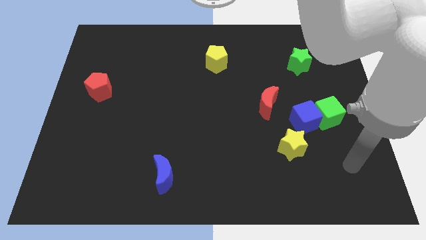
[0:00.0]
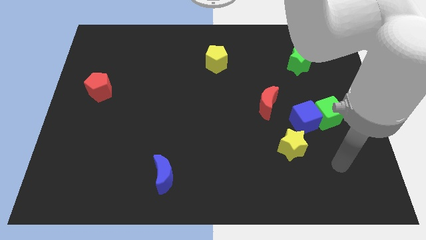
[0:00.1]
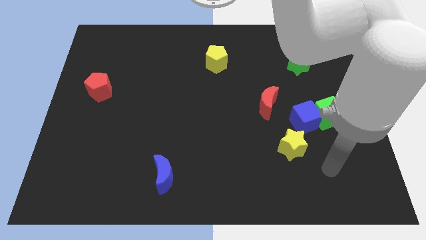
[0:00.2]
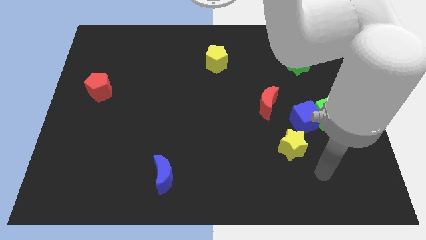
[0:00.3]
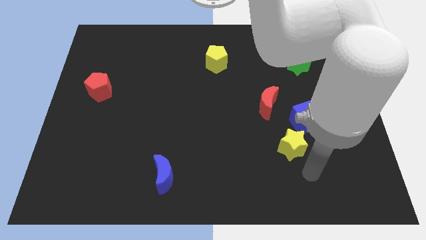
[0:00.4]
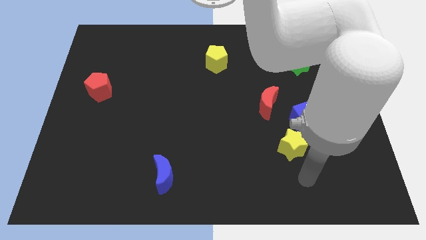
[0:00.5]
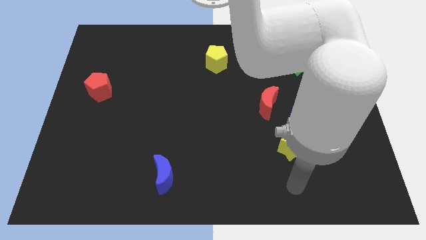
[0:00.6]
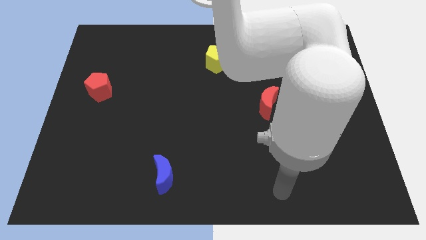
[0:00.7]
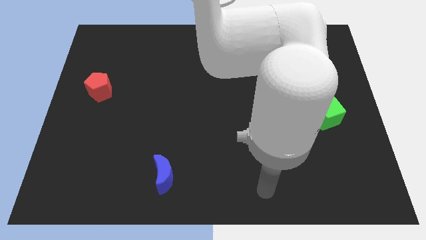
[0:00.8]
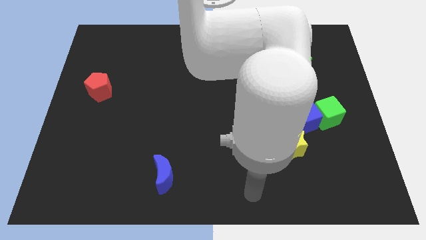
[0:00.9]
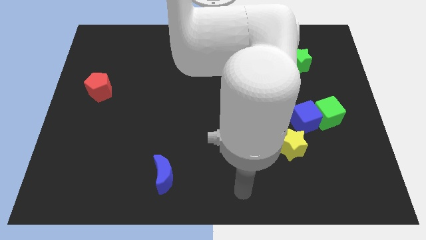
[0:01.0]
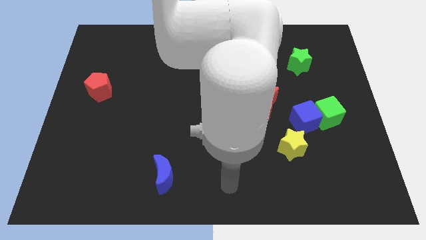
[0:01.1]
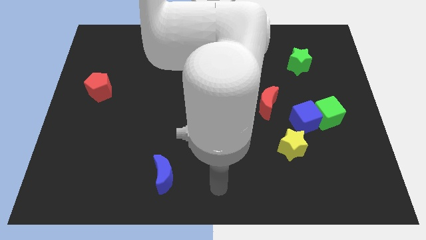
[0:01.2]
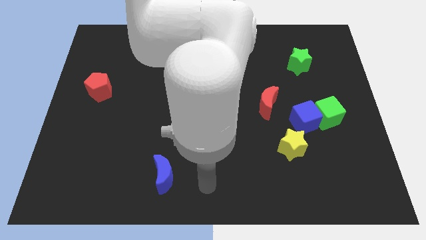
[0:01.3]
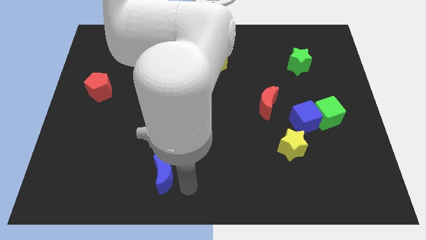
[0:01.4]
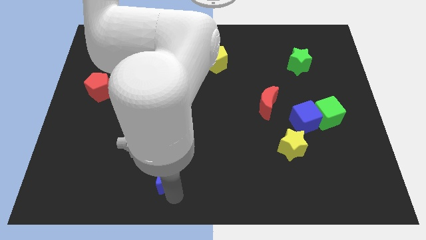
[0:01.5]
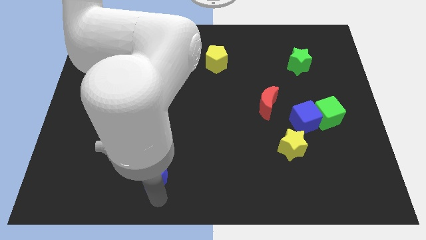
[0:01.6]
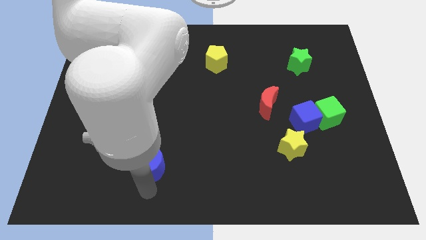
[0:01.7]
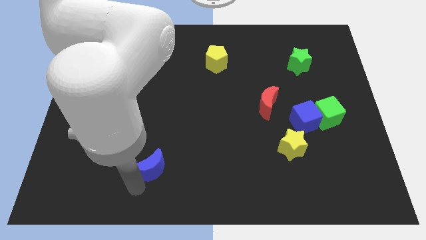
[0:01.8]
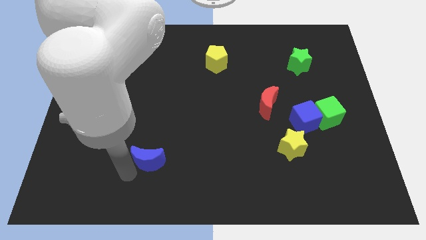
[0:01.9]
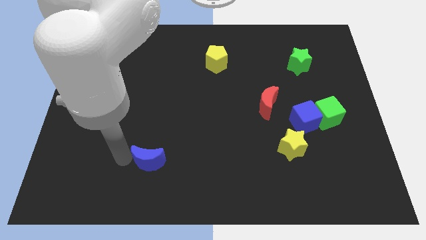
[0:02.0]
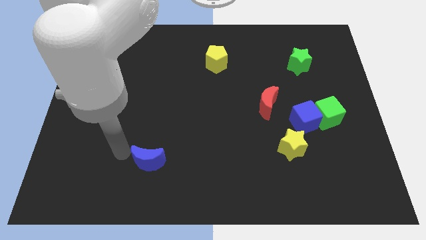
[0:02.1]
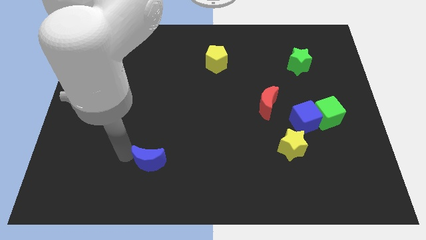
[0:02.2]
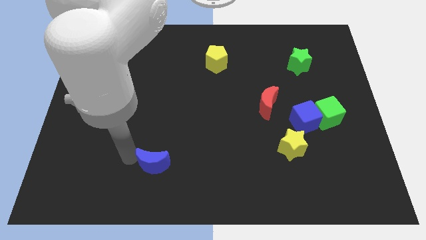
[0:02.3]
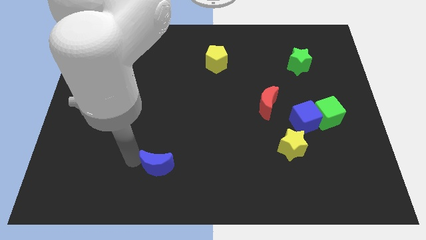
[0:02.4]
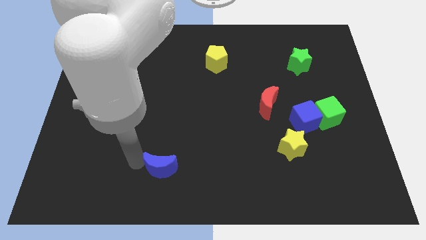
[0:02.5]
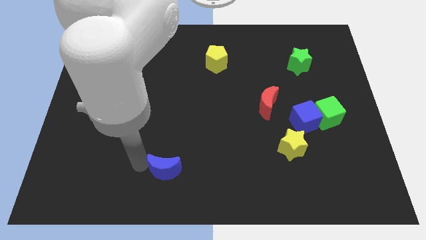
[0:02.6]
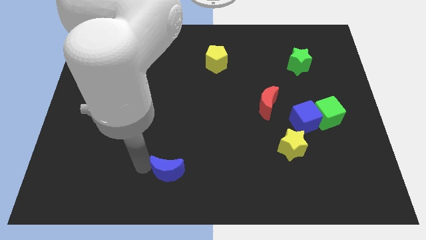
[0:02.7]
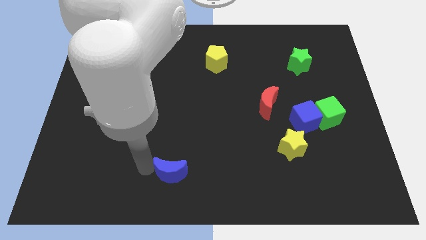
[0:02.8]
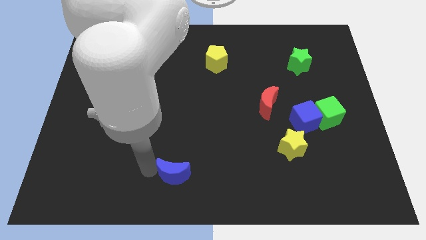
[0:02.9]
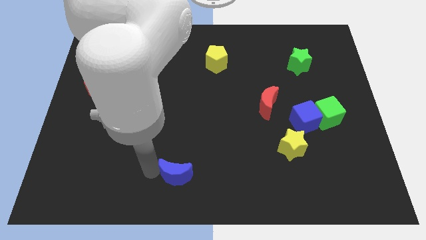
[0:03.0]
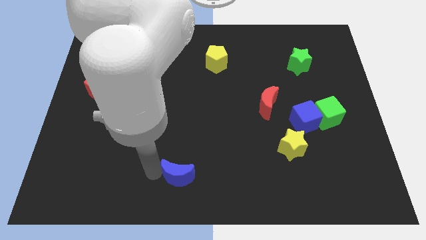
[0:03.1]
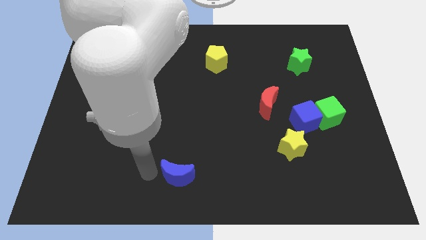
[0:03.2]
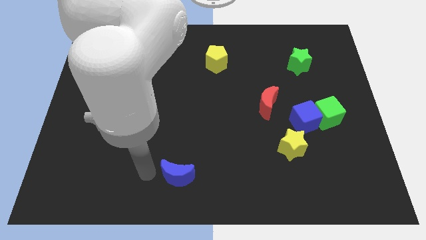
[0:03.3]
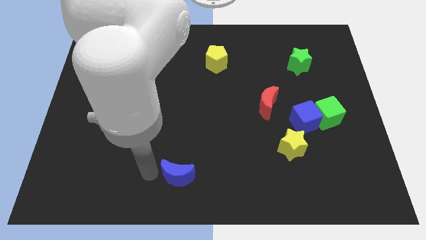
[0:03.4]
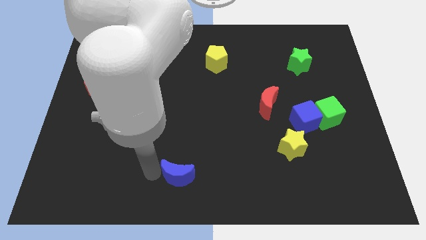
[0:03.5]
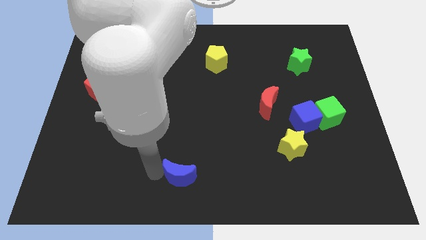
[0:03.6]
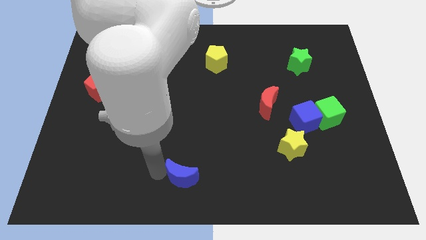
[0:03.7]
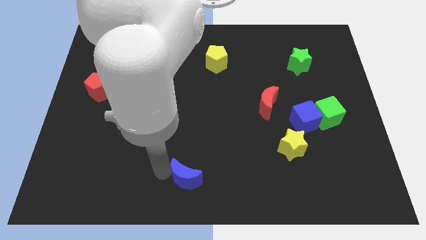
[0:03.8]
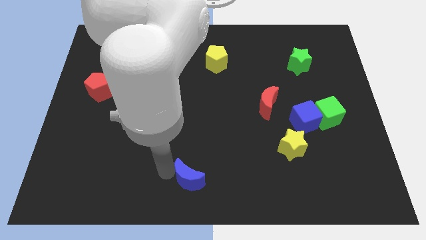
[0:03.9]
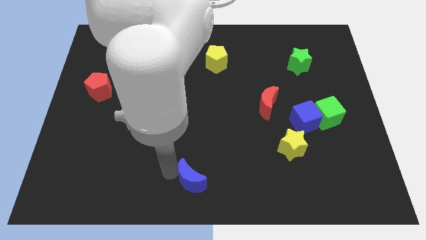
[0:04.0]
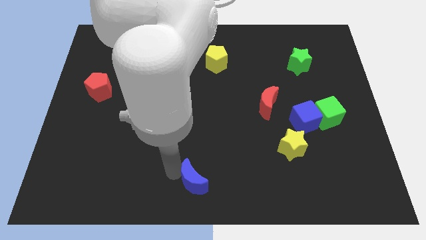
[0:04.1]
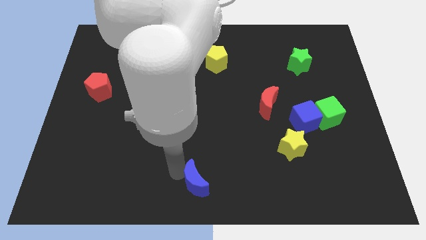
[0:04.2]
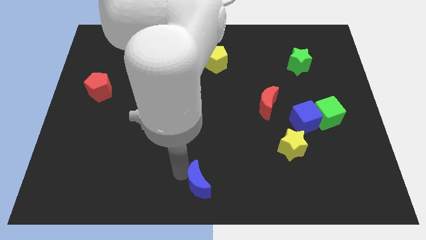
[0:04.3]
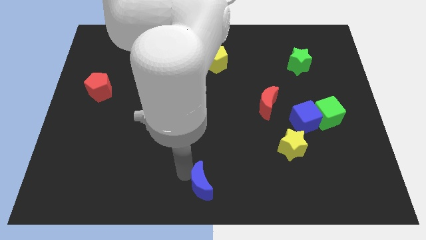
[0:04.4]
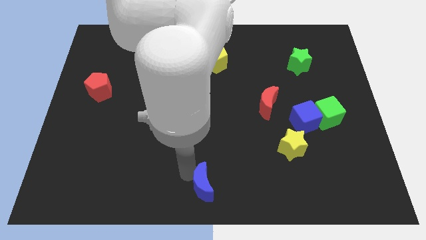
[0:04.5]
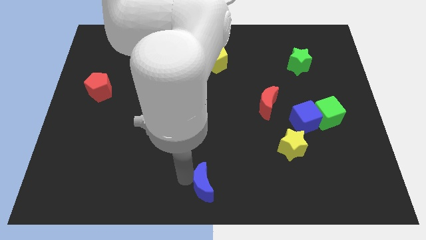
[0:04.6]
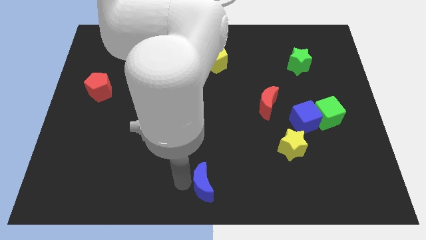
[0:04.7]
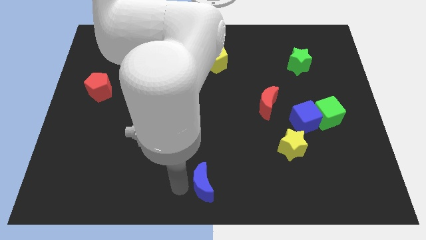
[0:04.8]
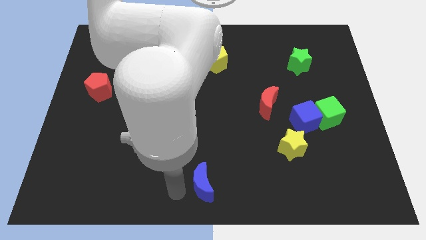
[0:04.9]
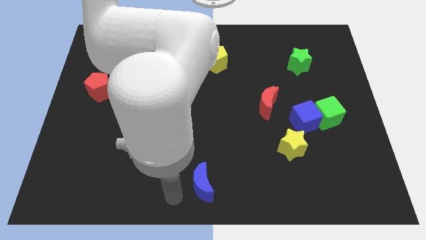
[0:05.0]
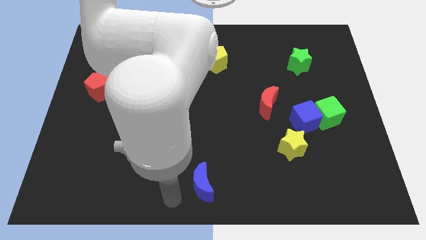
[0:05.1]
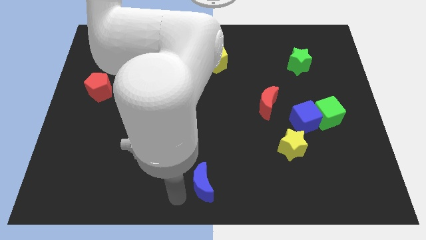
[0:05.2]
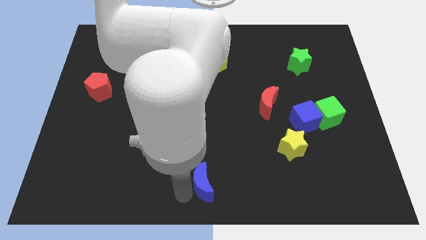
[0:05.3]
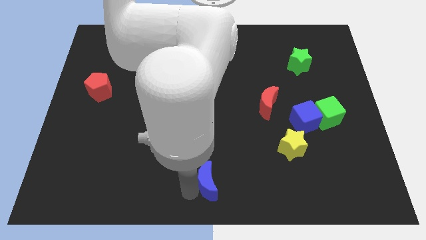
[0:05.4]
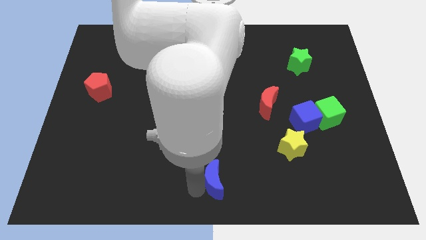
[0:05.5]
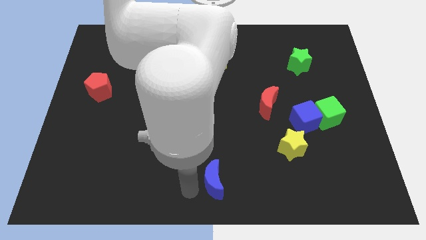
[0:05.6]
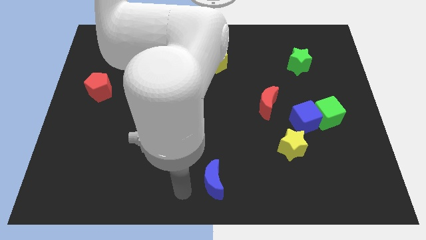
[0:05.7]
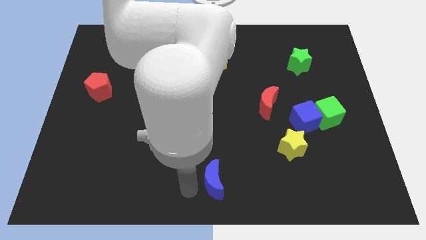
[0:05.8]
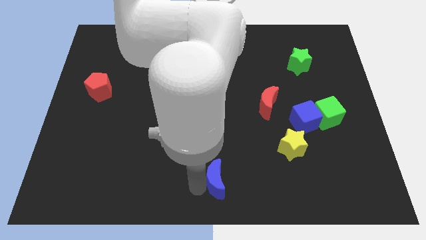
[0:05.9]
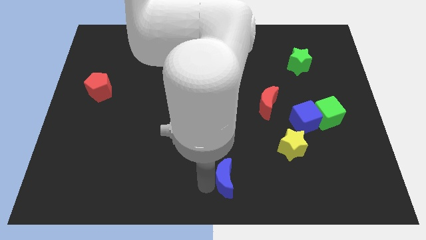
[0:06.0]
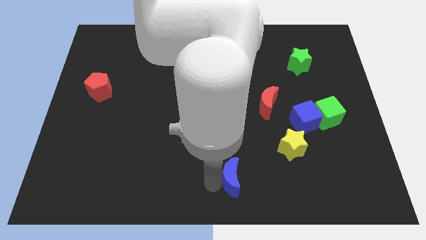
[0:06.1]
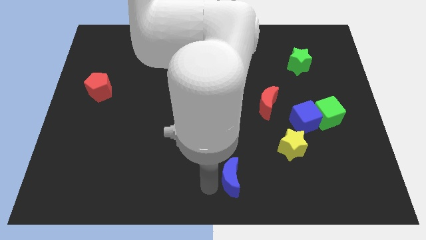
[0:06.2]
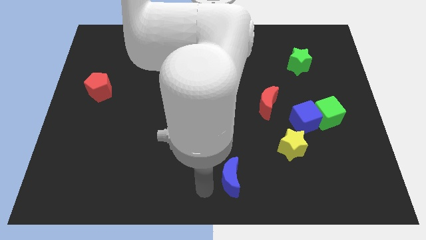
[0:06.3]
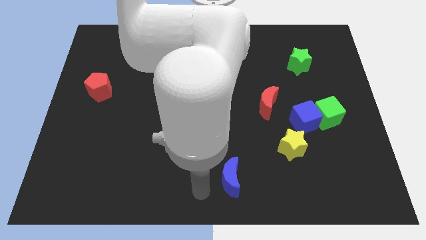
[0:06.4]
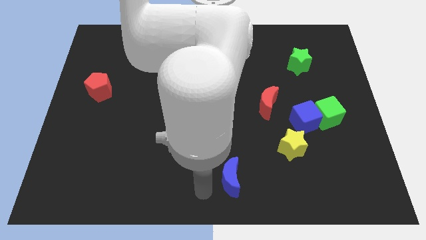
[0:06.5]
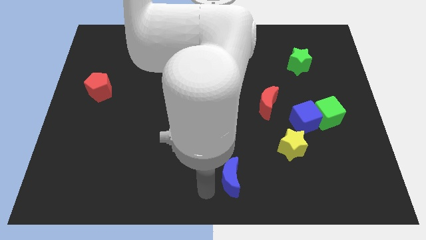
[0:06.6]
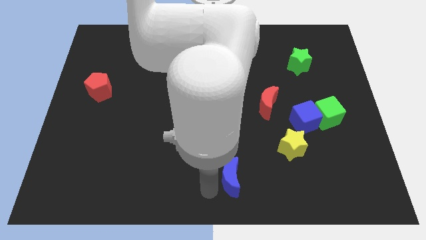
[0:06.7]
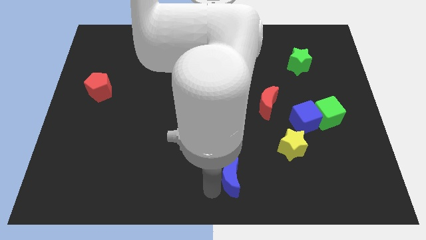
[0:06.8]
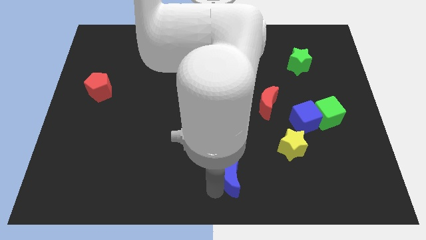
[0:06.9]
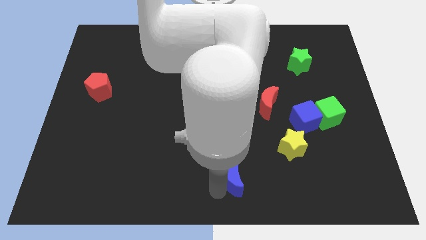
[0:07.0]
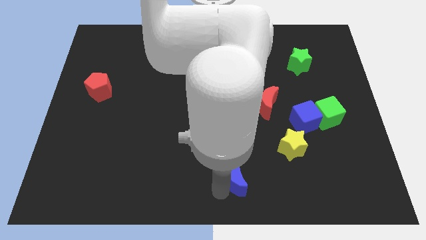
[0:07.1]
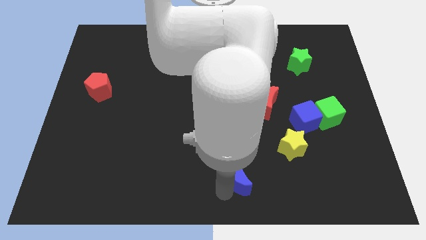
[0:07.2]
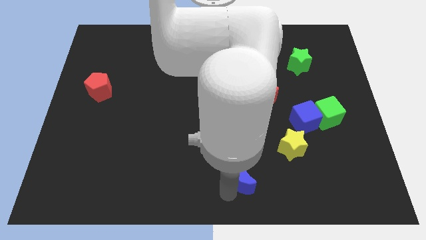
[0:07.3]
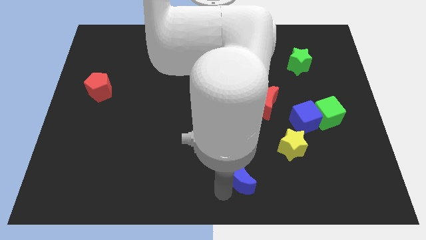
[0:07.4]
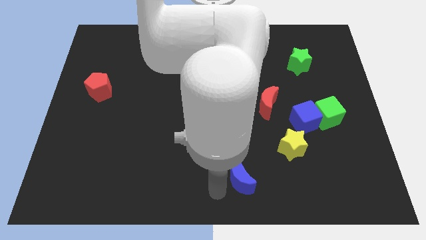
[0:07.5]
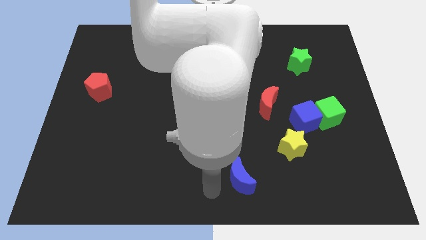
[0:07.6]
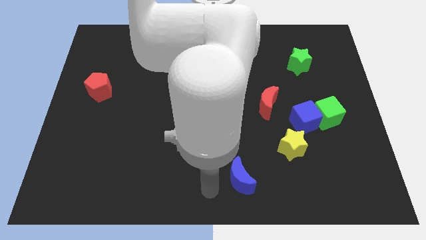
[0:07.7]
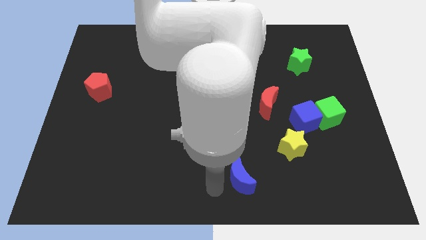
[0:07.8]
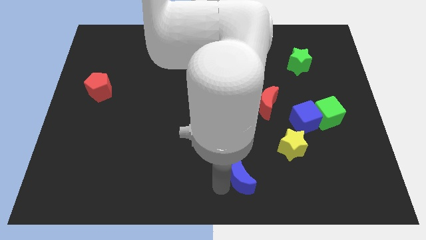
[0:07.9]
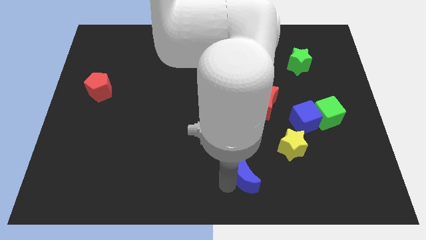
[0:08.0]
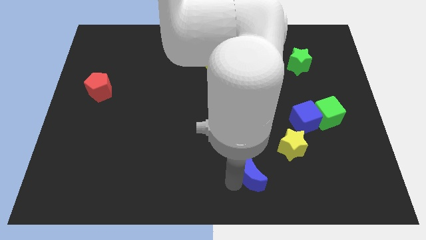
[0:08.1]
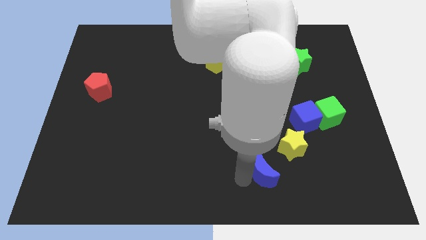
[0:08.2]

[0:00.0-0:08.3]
push the blue moon right

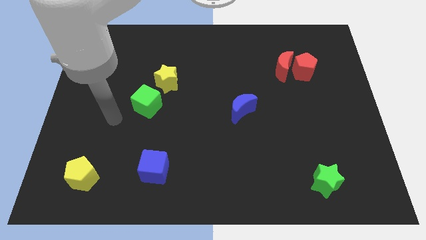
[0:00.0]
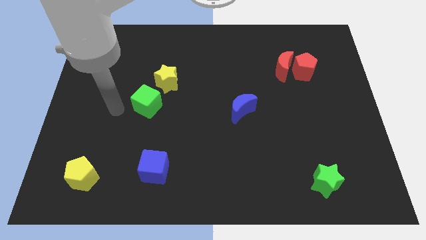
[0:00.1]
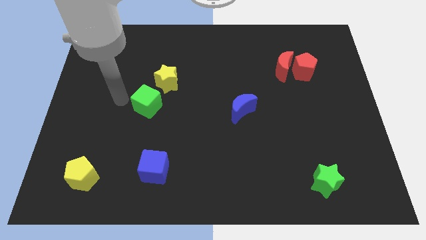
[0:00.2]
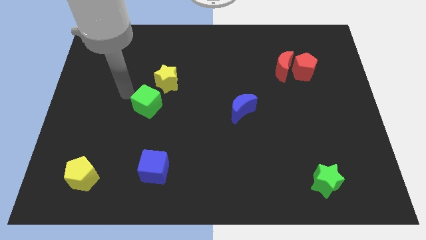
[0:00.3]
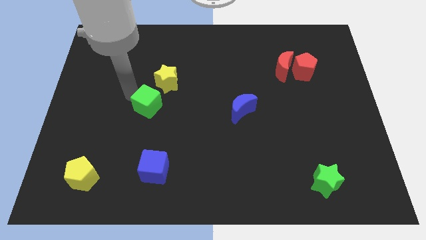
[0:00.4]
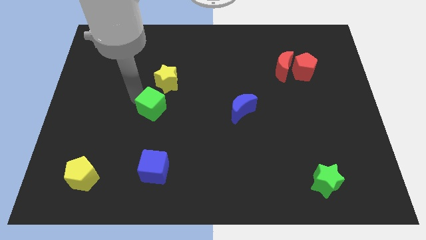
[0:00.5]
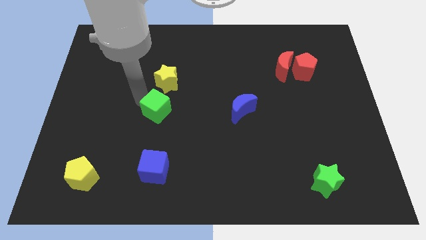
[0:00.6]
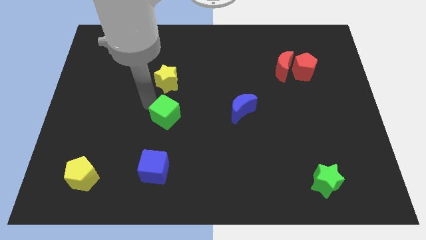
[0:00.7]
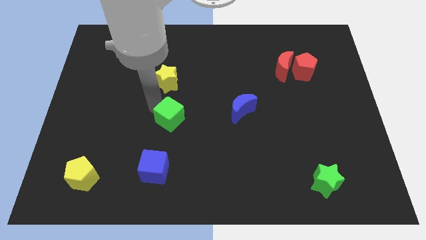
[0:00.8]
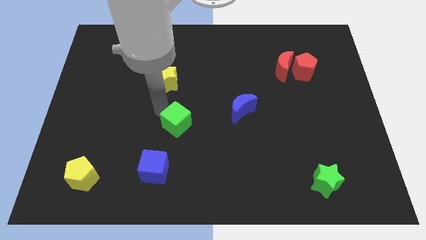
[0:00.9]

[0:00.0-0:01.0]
move the green cube somewhat downwards and right diagonally
